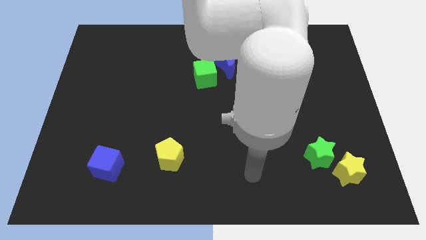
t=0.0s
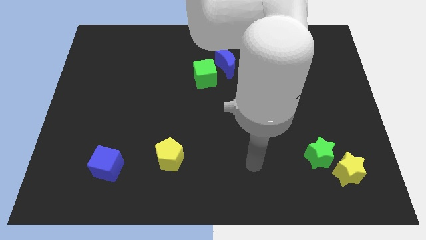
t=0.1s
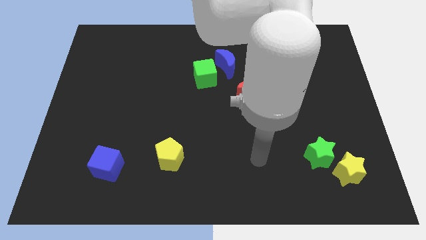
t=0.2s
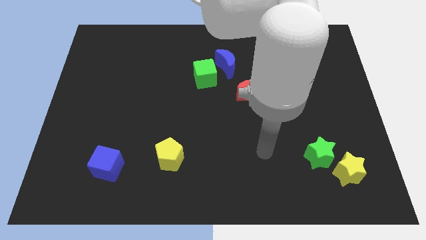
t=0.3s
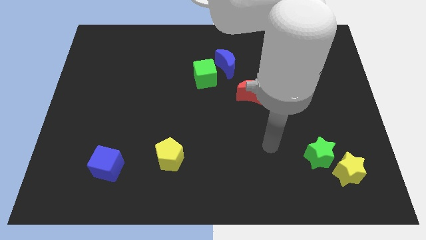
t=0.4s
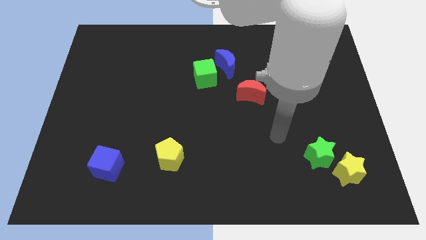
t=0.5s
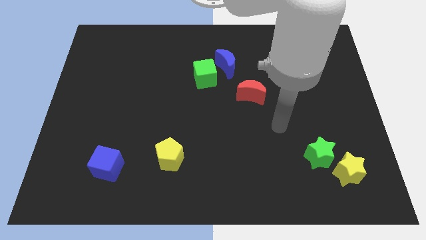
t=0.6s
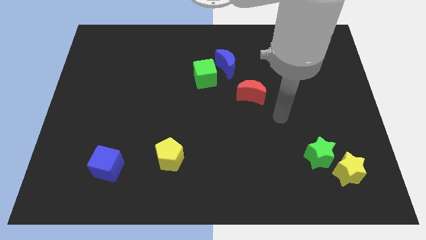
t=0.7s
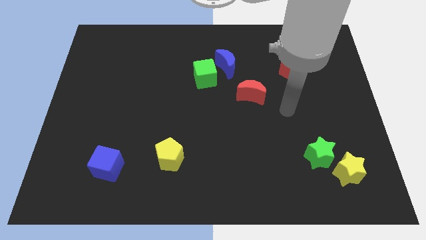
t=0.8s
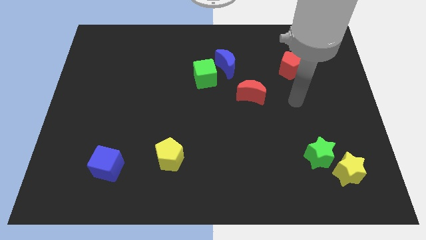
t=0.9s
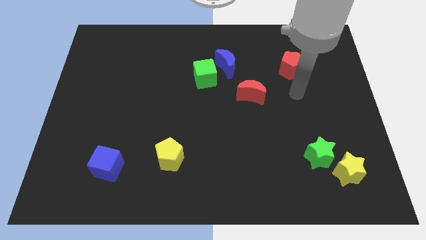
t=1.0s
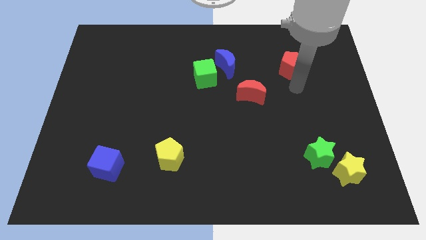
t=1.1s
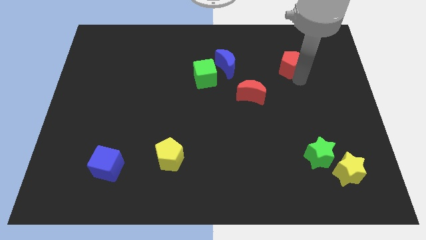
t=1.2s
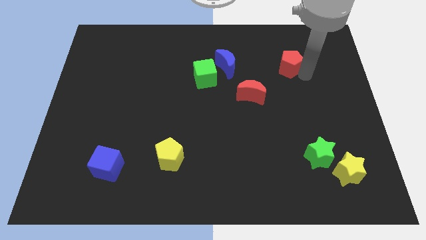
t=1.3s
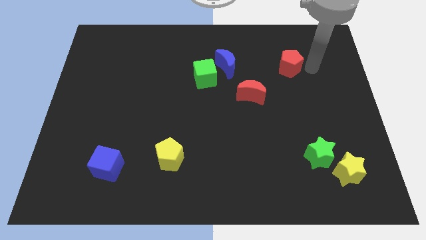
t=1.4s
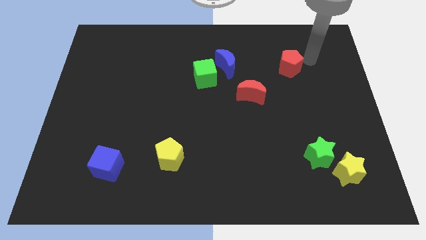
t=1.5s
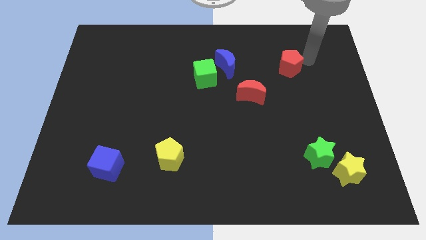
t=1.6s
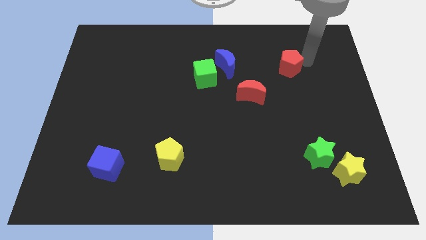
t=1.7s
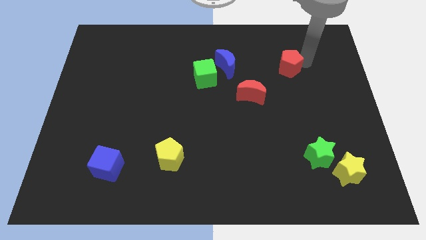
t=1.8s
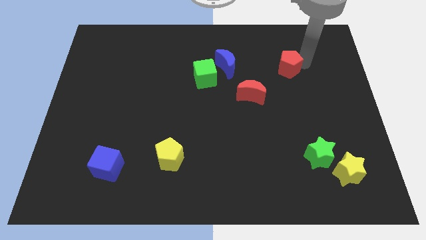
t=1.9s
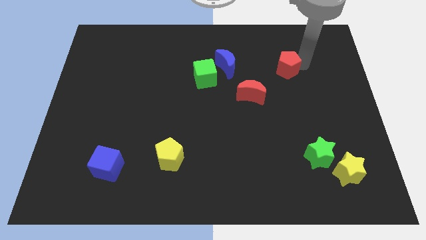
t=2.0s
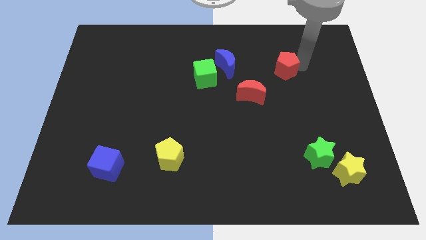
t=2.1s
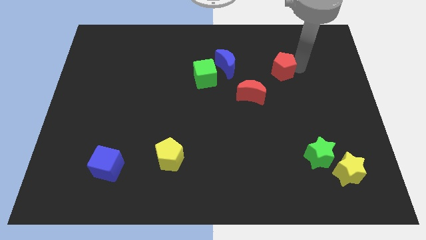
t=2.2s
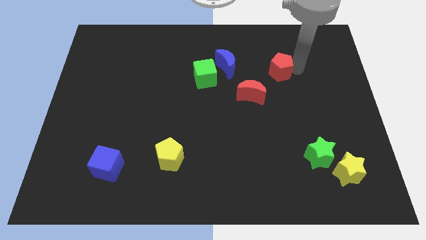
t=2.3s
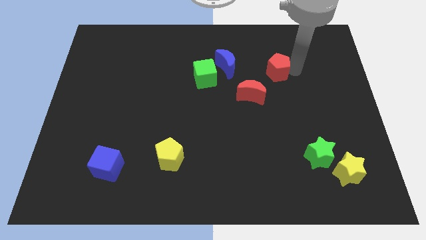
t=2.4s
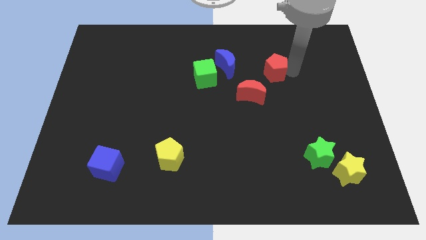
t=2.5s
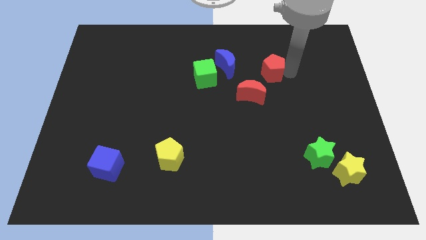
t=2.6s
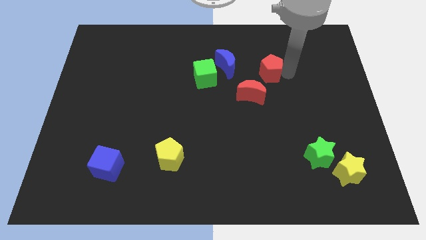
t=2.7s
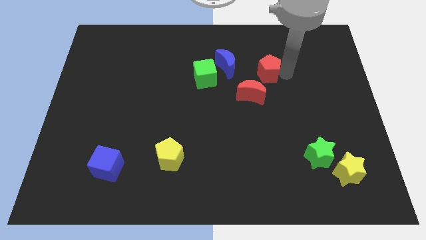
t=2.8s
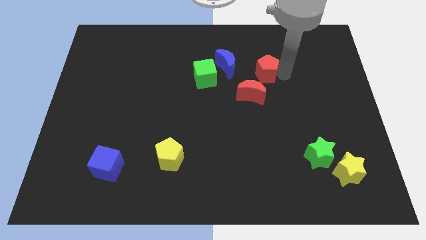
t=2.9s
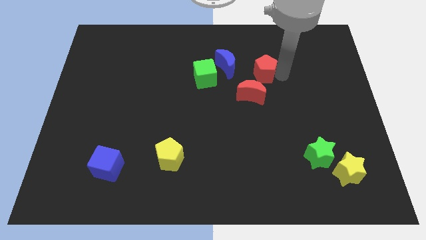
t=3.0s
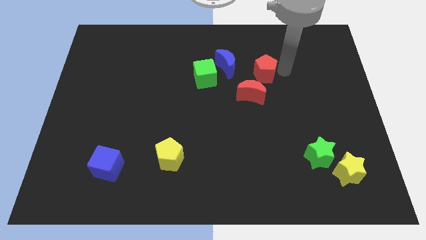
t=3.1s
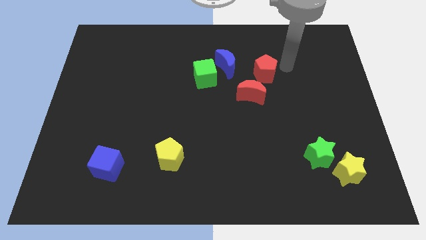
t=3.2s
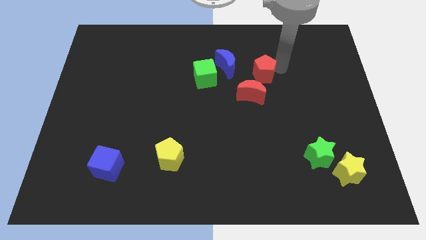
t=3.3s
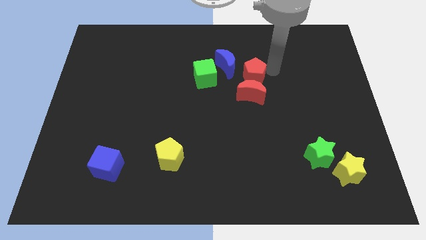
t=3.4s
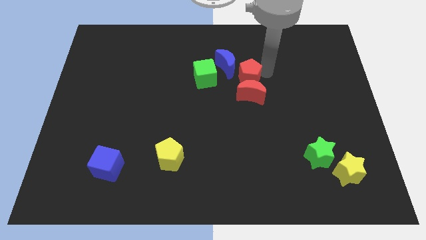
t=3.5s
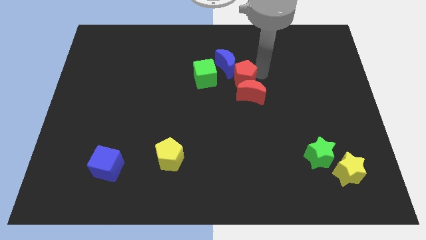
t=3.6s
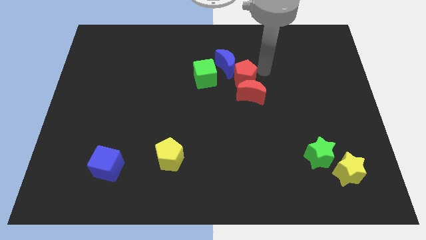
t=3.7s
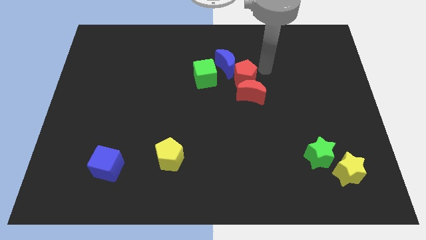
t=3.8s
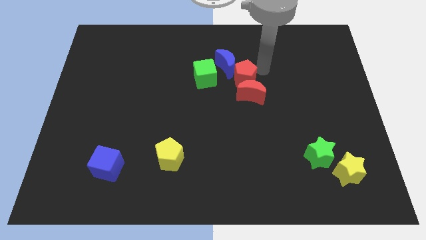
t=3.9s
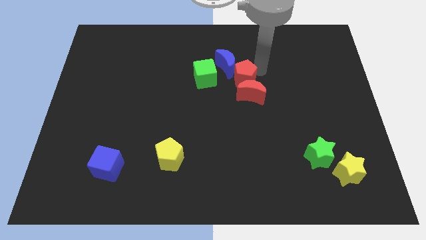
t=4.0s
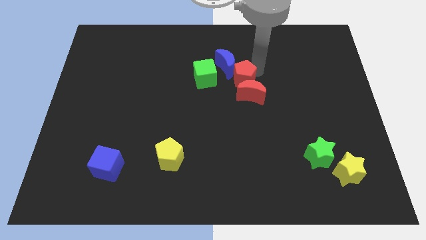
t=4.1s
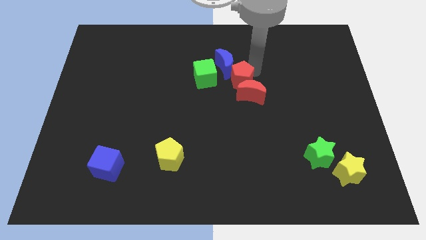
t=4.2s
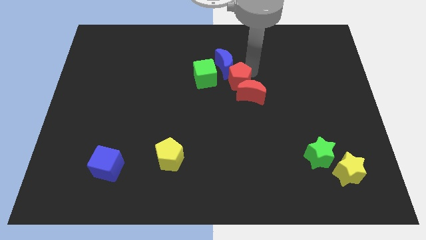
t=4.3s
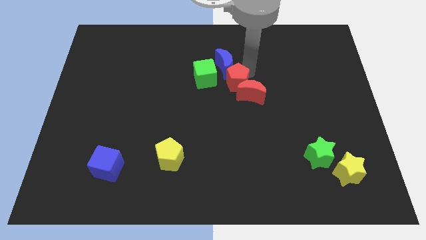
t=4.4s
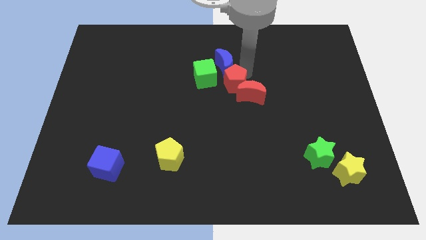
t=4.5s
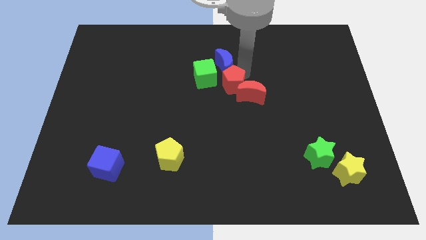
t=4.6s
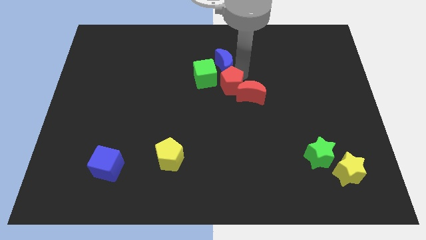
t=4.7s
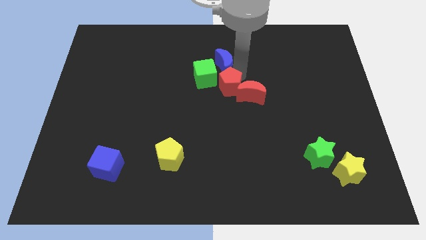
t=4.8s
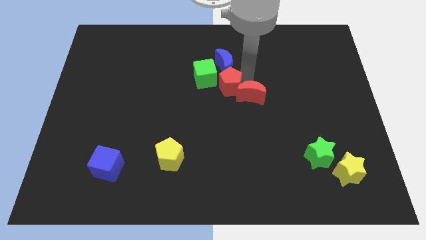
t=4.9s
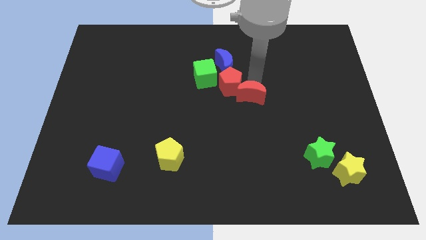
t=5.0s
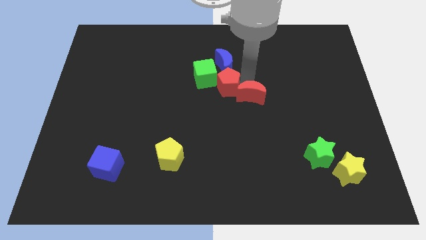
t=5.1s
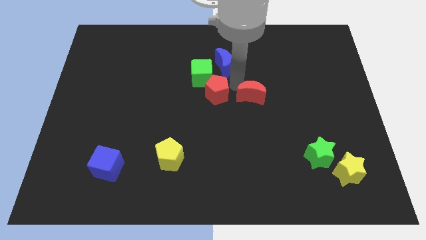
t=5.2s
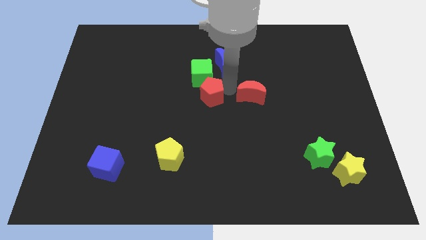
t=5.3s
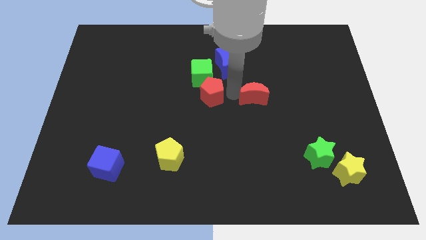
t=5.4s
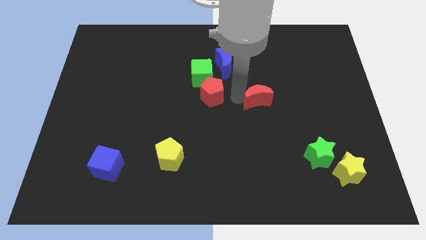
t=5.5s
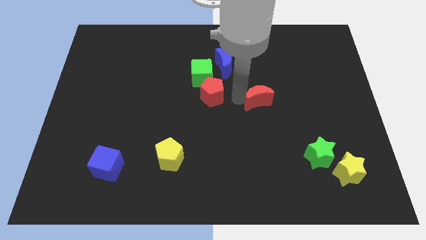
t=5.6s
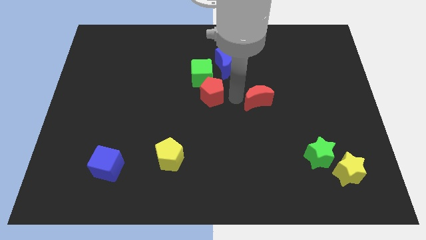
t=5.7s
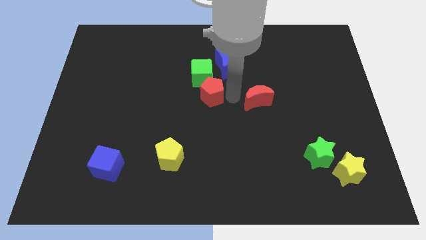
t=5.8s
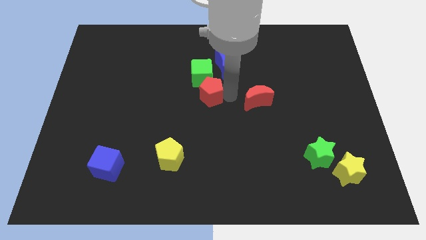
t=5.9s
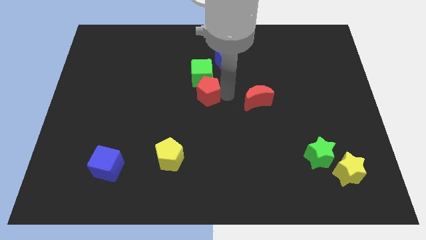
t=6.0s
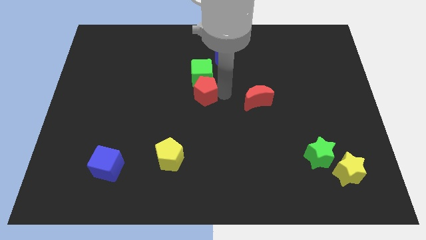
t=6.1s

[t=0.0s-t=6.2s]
slide the red pentagon diagonally down and to the left of the green cube

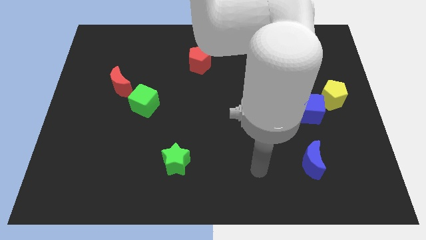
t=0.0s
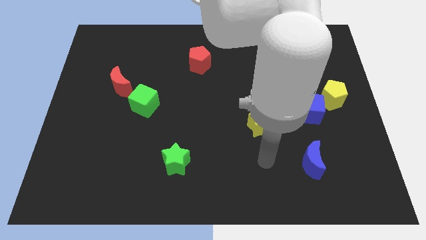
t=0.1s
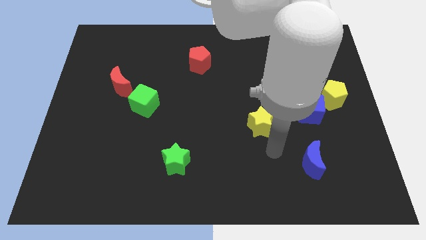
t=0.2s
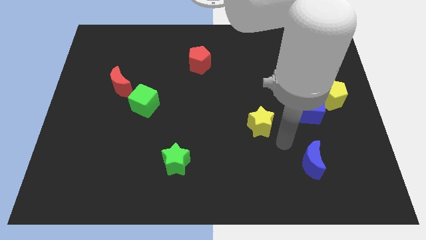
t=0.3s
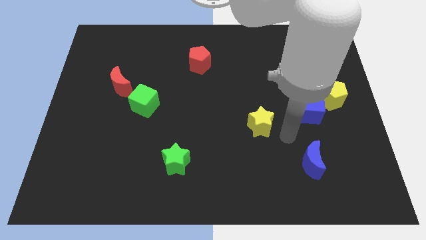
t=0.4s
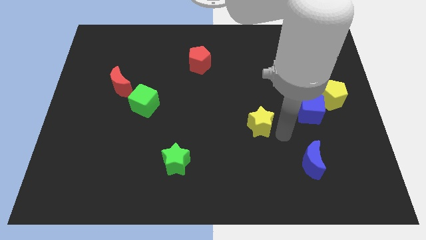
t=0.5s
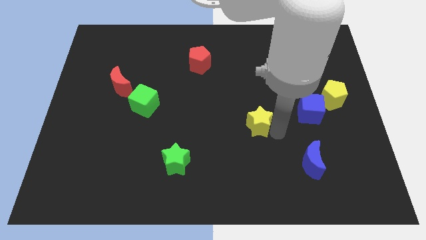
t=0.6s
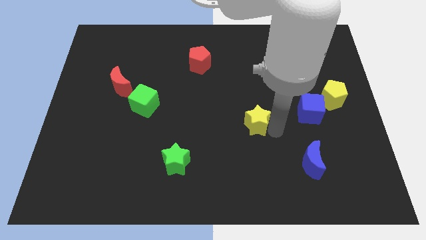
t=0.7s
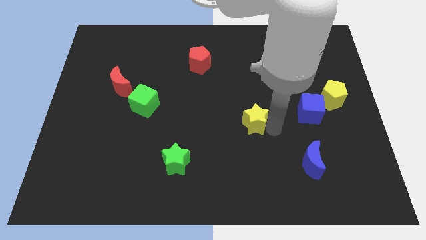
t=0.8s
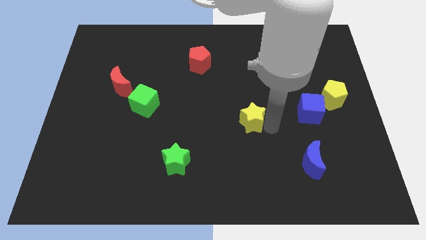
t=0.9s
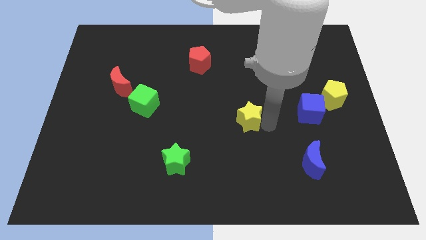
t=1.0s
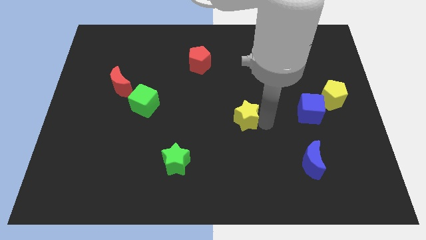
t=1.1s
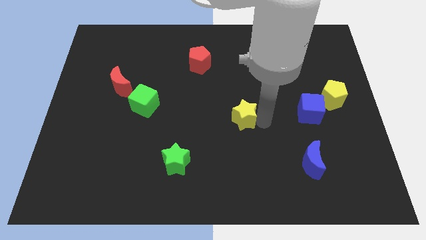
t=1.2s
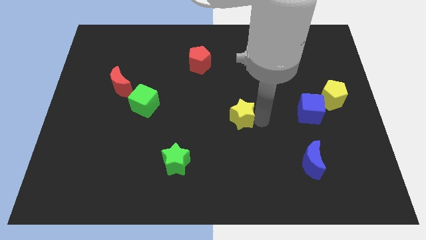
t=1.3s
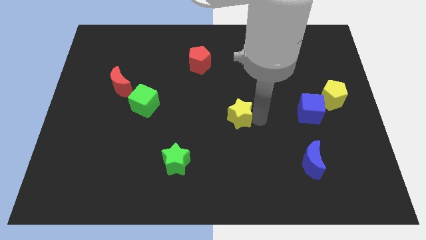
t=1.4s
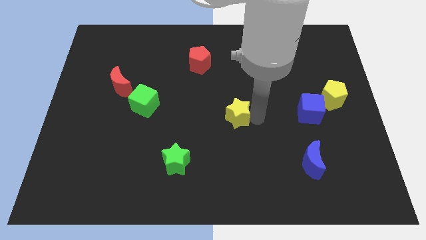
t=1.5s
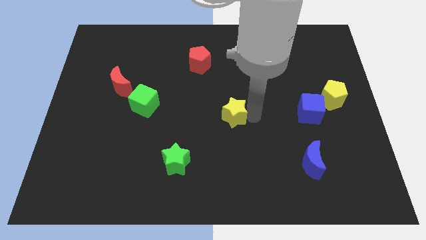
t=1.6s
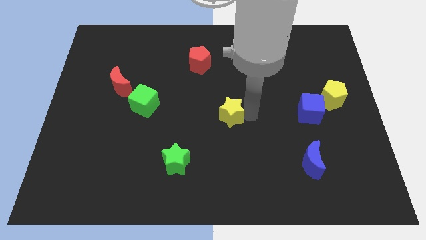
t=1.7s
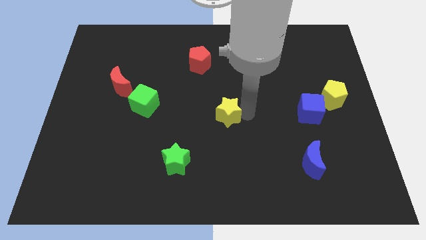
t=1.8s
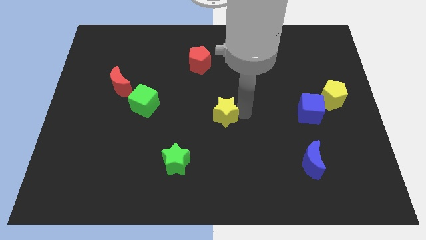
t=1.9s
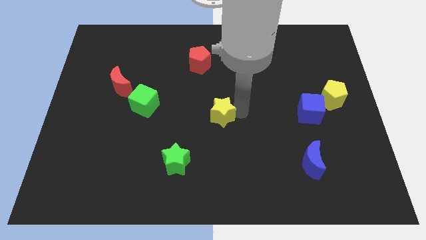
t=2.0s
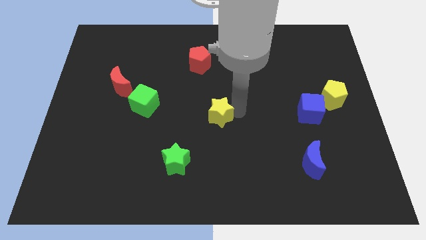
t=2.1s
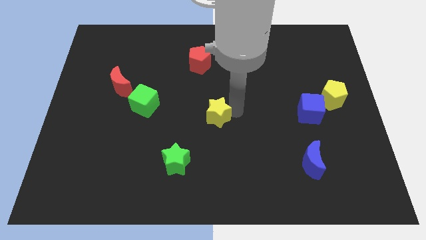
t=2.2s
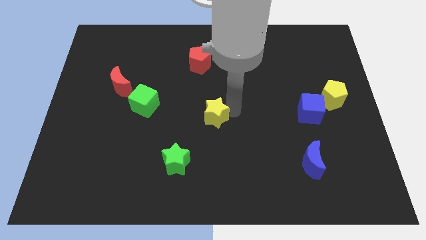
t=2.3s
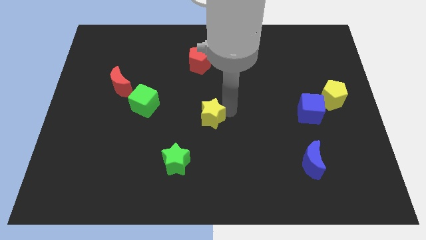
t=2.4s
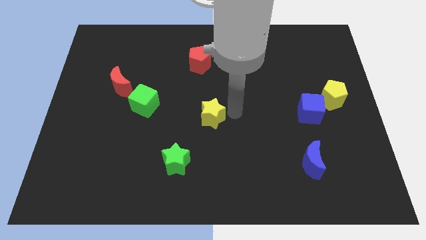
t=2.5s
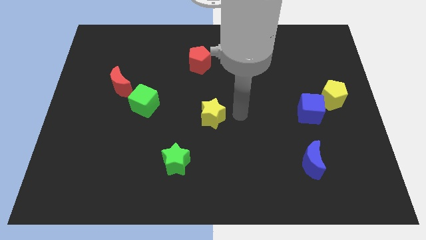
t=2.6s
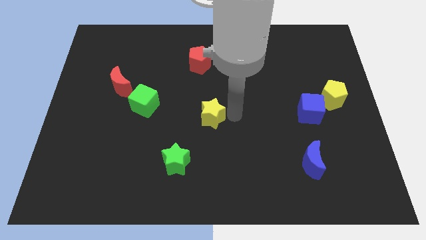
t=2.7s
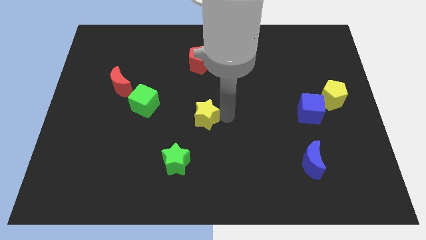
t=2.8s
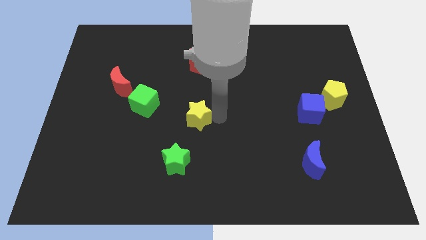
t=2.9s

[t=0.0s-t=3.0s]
put the yellow star to the top side of the green star
